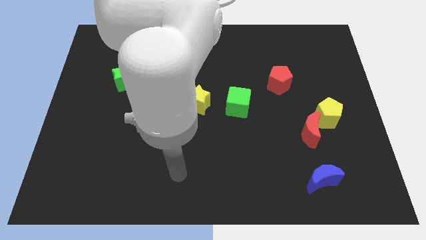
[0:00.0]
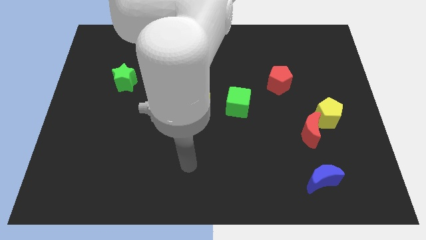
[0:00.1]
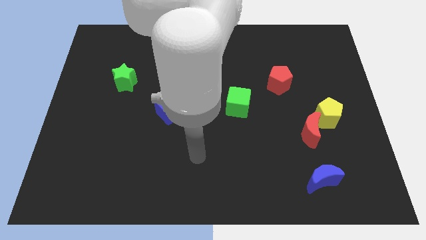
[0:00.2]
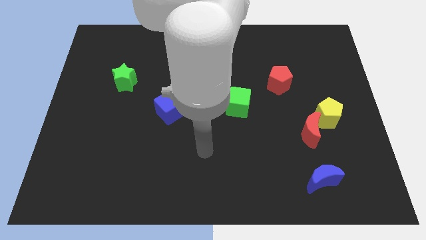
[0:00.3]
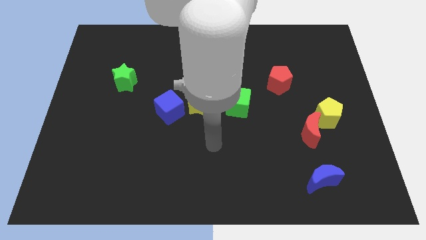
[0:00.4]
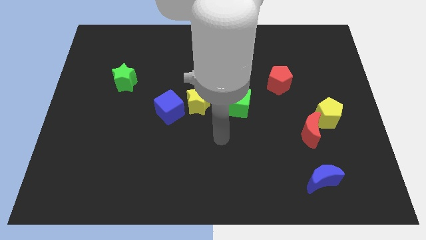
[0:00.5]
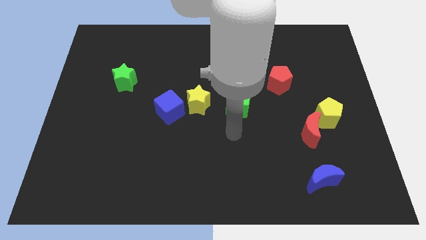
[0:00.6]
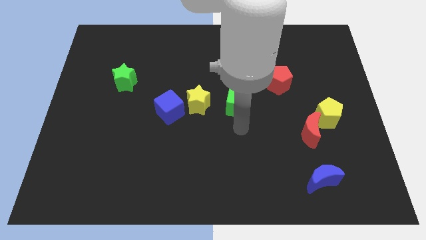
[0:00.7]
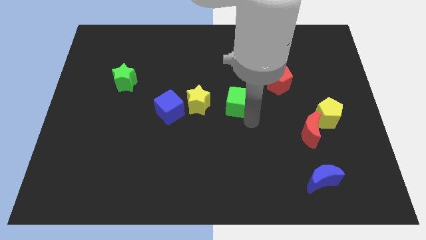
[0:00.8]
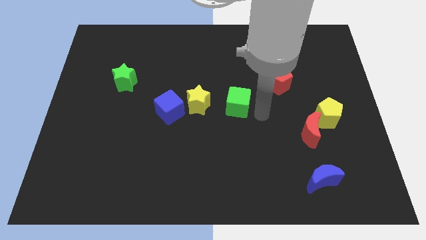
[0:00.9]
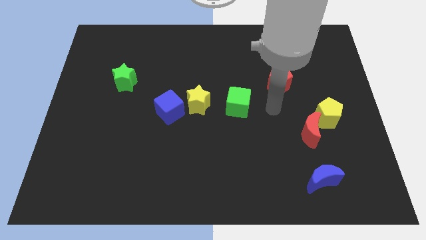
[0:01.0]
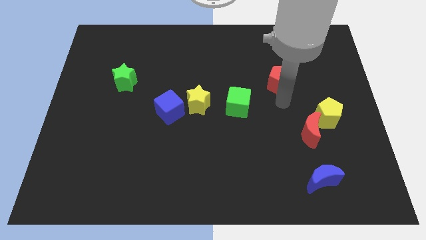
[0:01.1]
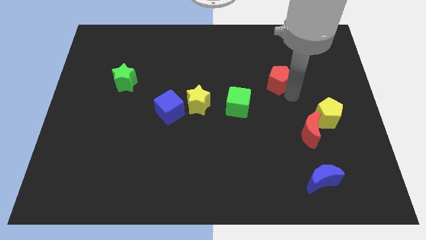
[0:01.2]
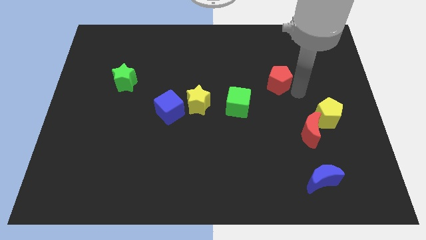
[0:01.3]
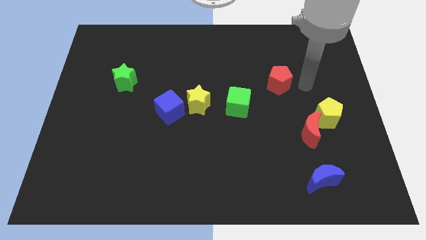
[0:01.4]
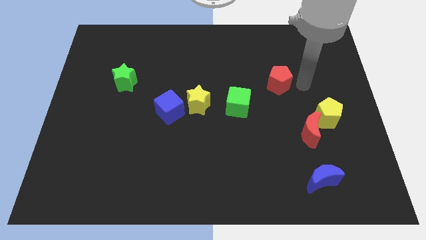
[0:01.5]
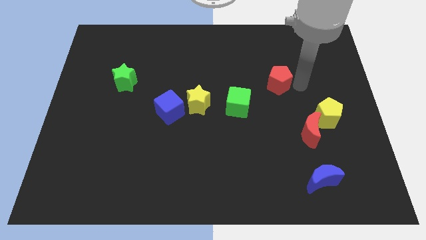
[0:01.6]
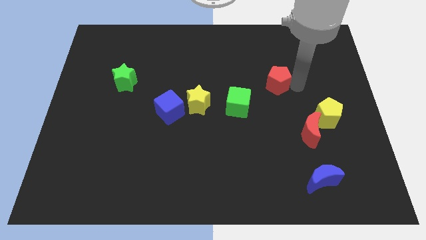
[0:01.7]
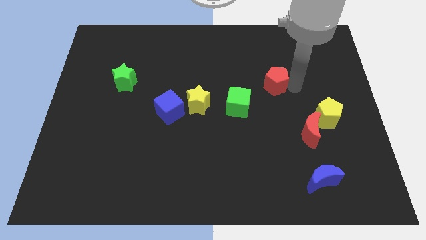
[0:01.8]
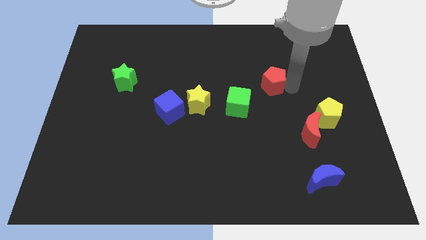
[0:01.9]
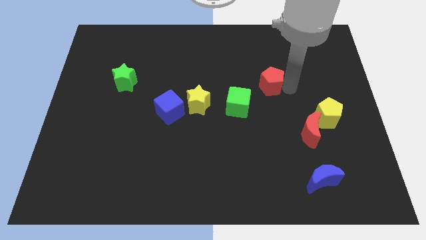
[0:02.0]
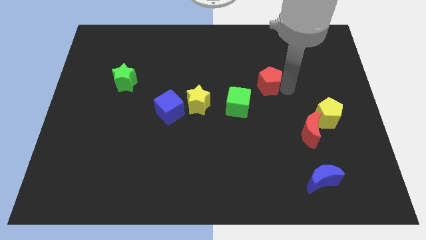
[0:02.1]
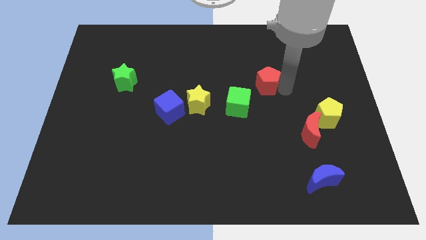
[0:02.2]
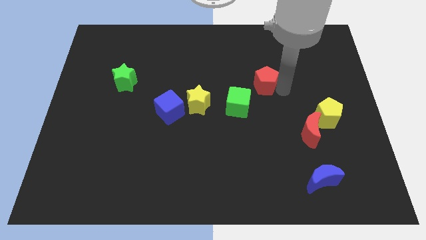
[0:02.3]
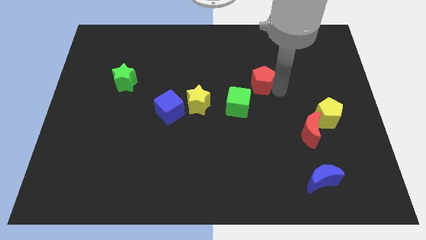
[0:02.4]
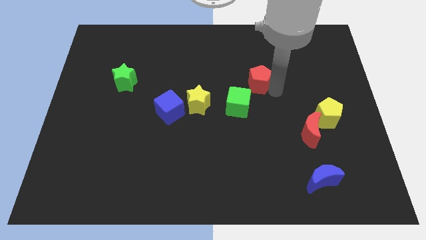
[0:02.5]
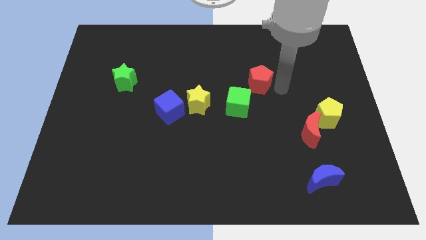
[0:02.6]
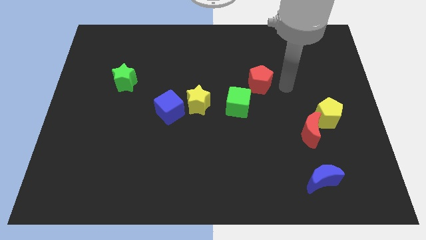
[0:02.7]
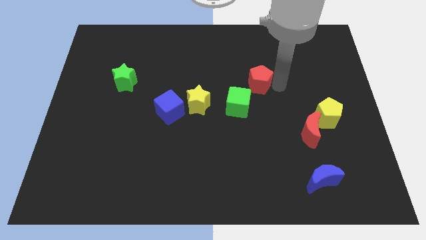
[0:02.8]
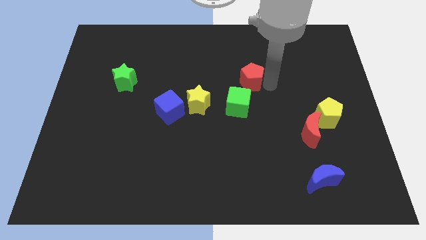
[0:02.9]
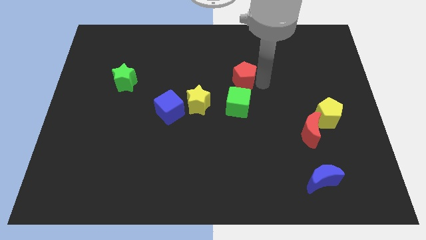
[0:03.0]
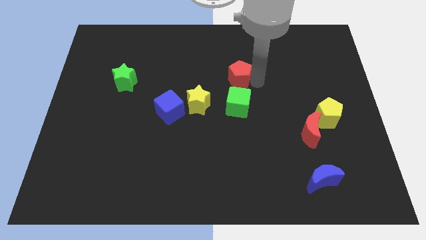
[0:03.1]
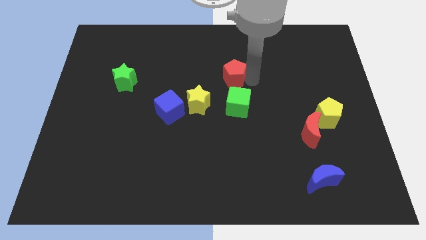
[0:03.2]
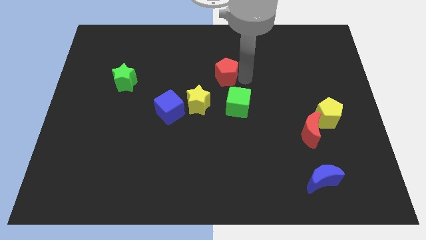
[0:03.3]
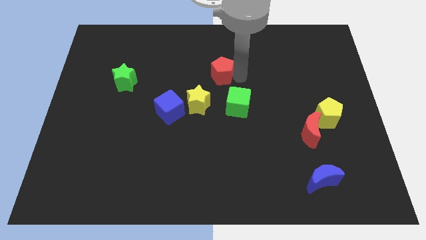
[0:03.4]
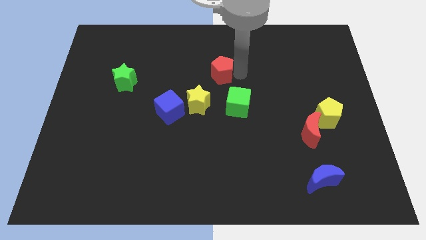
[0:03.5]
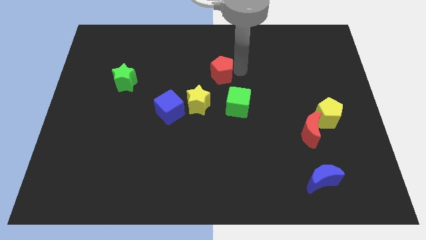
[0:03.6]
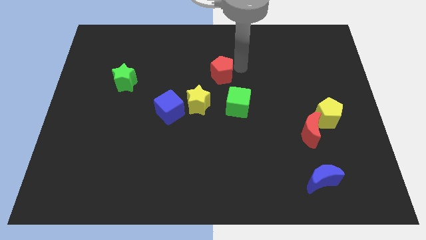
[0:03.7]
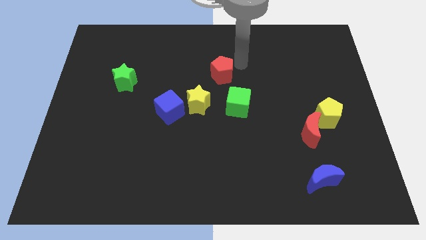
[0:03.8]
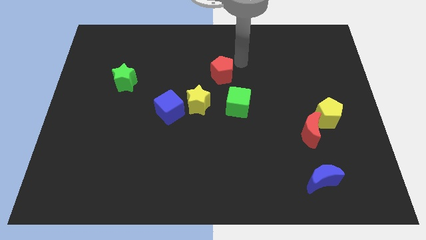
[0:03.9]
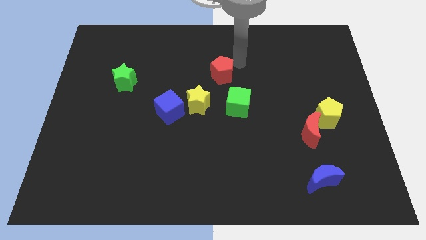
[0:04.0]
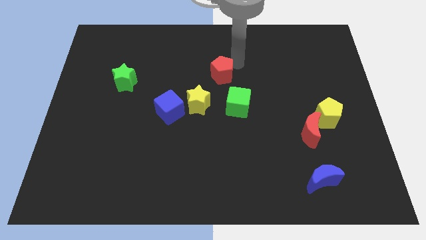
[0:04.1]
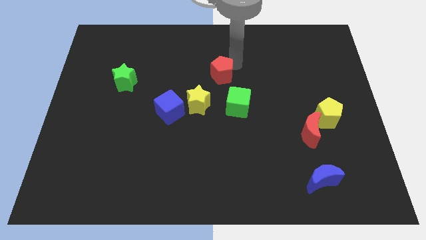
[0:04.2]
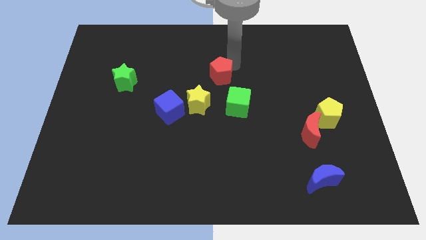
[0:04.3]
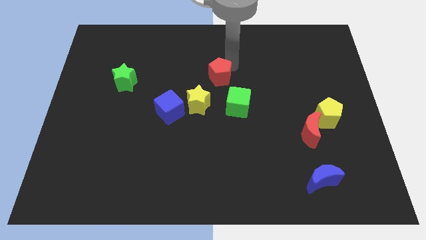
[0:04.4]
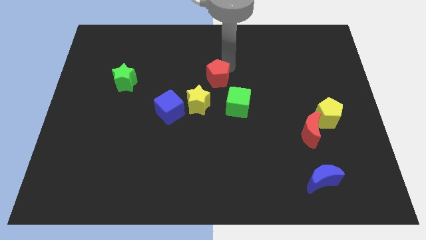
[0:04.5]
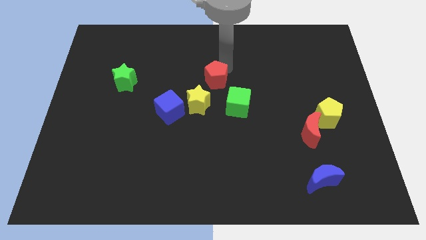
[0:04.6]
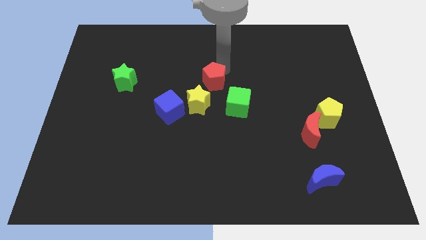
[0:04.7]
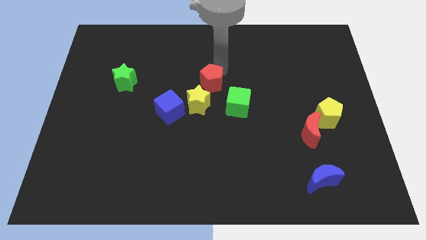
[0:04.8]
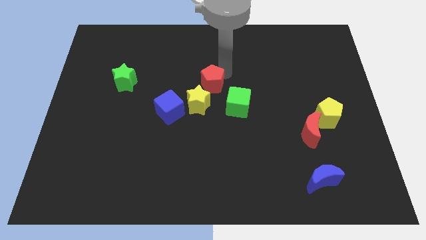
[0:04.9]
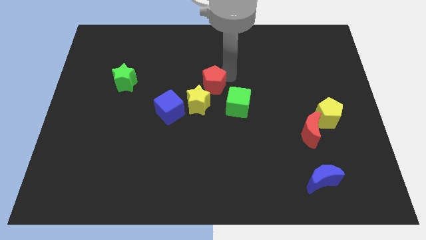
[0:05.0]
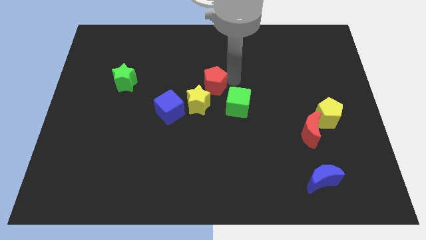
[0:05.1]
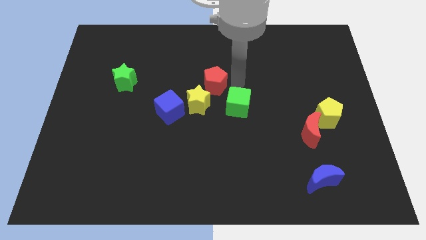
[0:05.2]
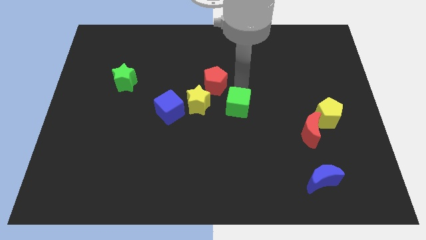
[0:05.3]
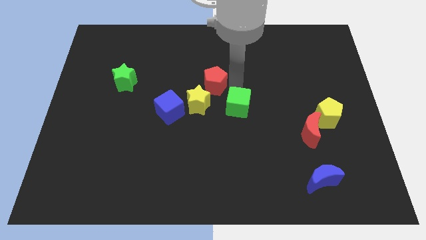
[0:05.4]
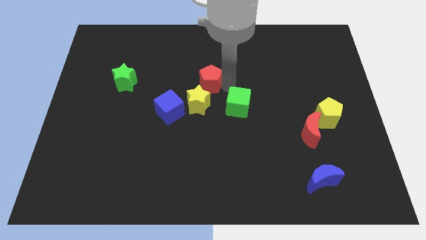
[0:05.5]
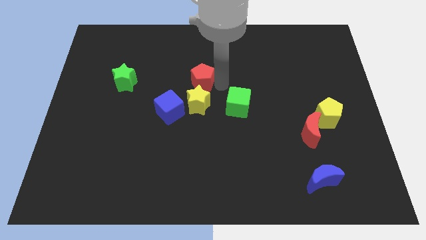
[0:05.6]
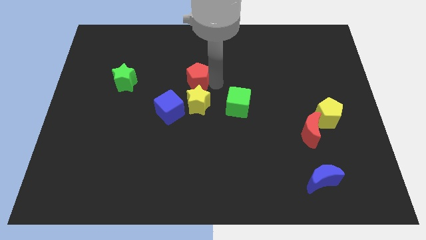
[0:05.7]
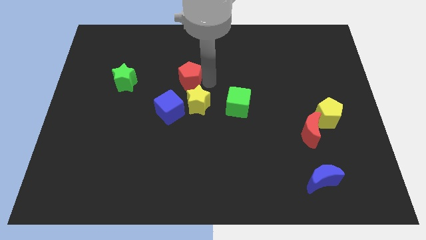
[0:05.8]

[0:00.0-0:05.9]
push the red pentagon just right of the green star

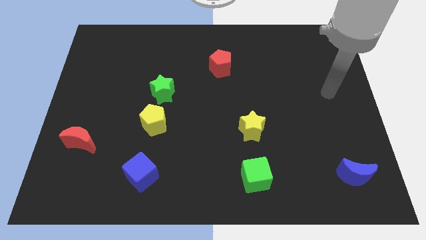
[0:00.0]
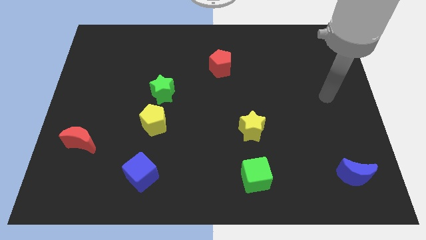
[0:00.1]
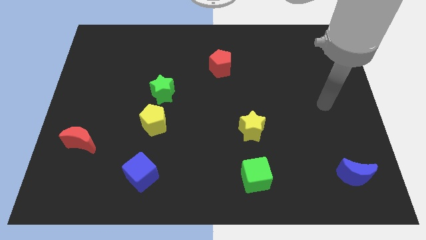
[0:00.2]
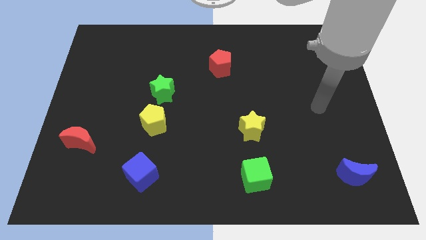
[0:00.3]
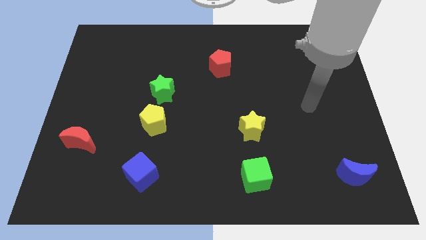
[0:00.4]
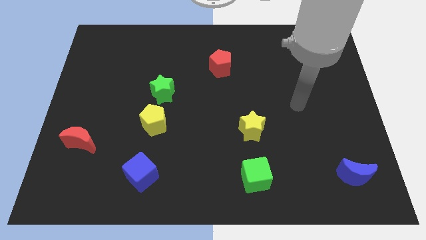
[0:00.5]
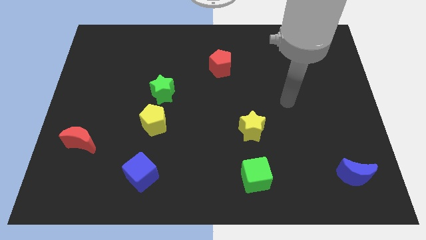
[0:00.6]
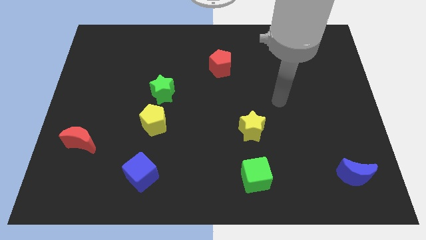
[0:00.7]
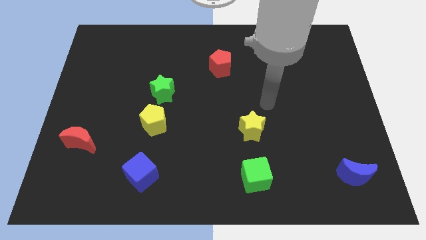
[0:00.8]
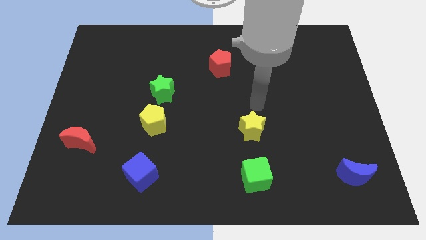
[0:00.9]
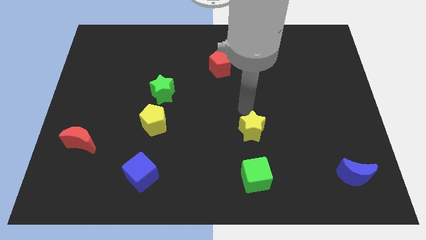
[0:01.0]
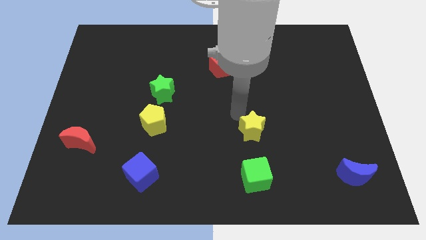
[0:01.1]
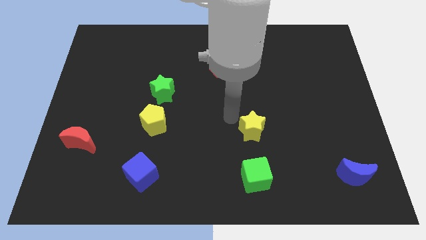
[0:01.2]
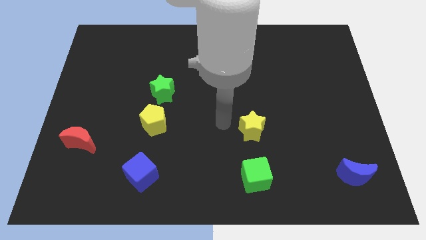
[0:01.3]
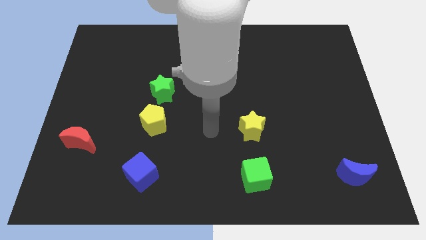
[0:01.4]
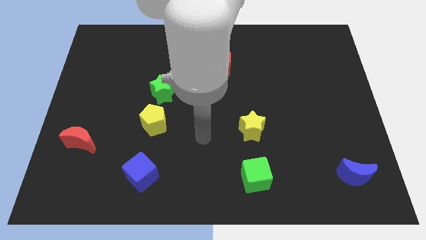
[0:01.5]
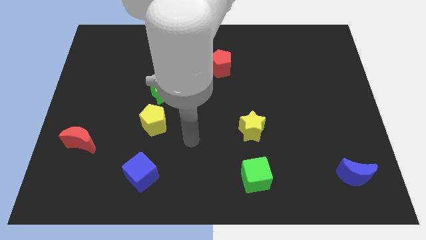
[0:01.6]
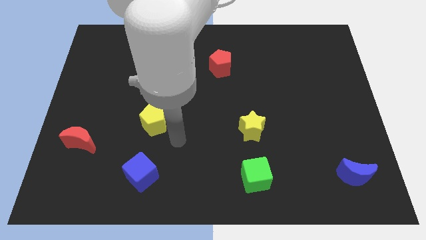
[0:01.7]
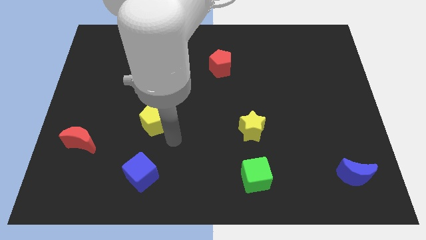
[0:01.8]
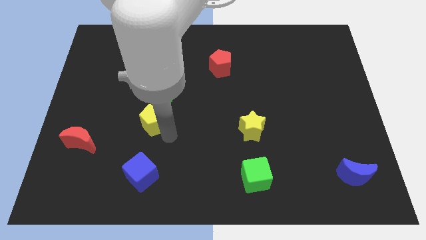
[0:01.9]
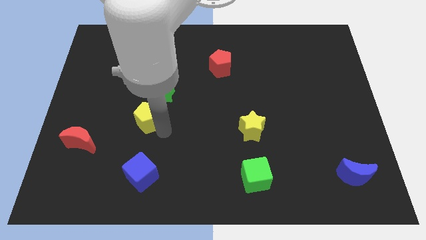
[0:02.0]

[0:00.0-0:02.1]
put the yellow pentagon diagonally down and to the left of the green star
